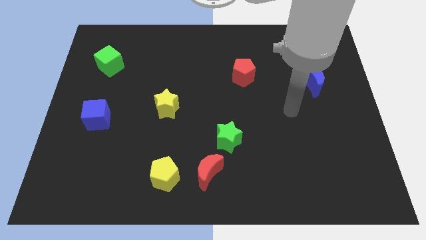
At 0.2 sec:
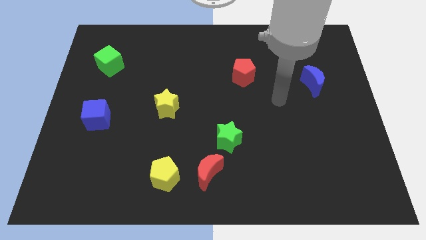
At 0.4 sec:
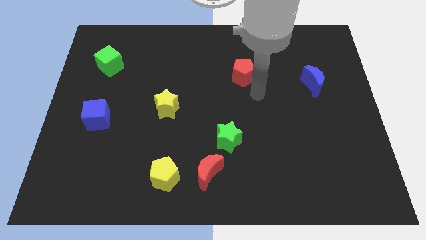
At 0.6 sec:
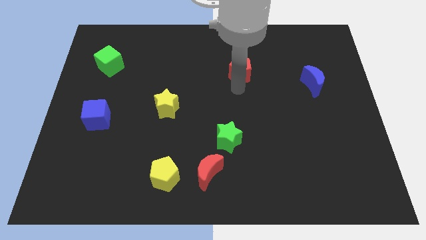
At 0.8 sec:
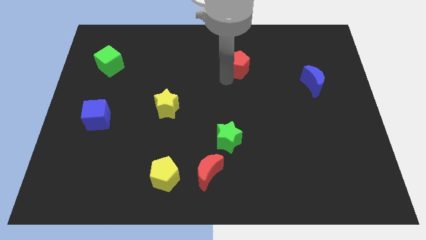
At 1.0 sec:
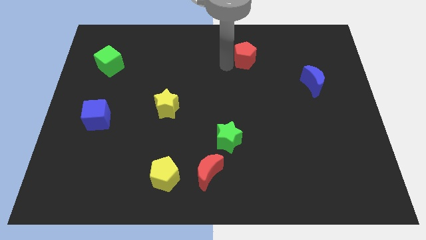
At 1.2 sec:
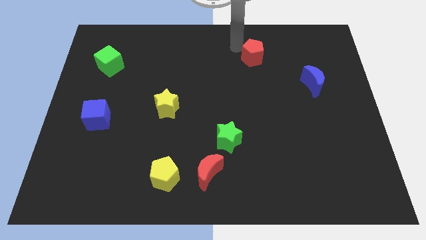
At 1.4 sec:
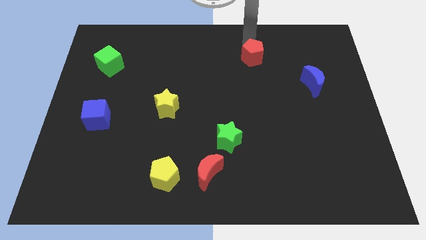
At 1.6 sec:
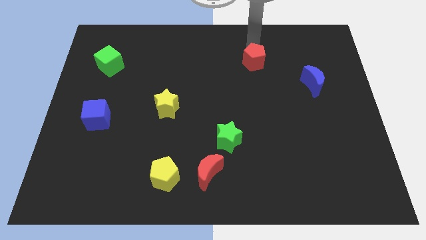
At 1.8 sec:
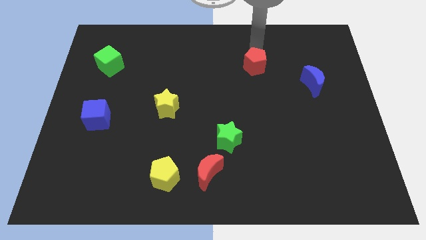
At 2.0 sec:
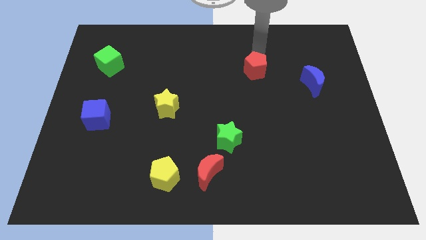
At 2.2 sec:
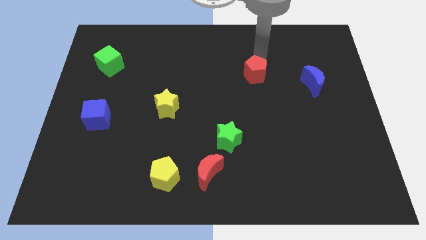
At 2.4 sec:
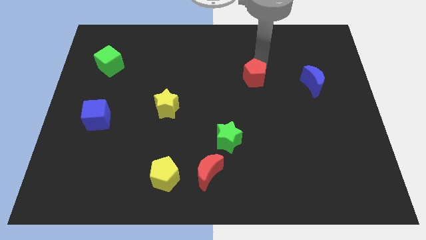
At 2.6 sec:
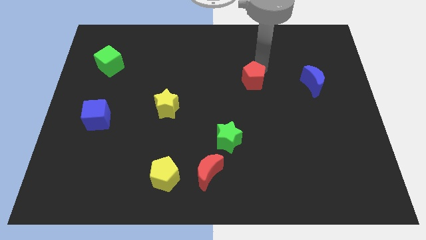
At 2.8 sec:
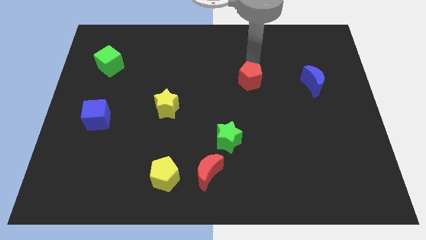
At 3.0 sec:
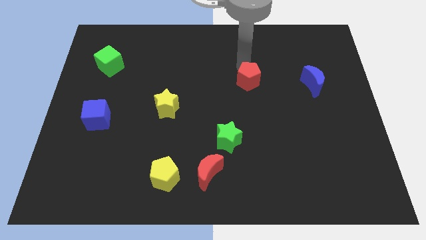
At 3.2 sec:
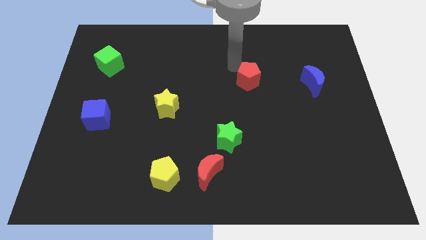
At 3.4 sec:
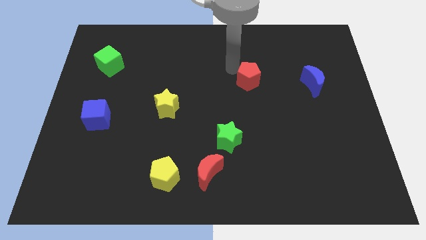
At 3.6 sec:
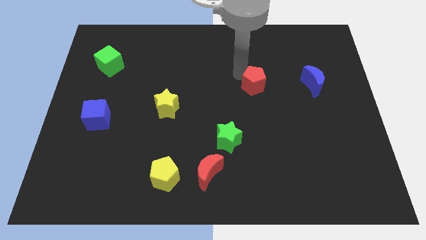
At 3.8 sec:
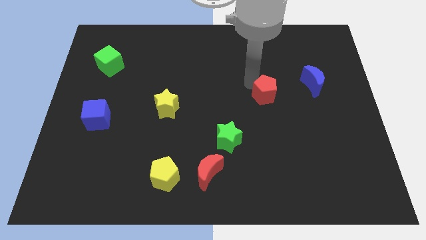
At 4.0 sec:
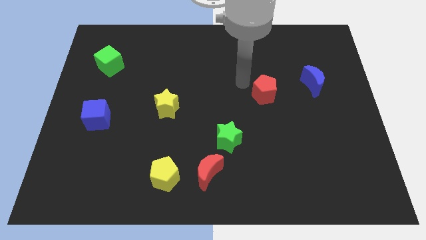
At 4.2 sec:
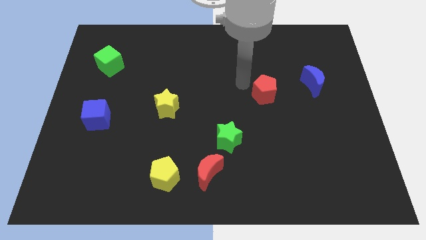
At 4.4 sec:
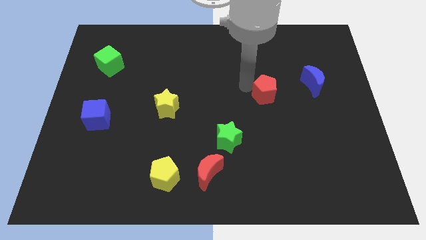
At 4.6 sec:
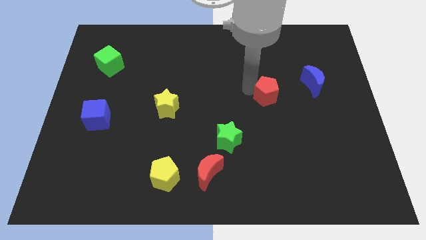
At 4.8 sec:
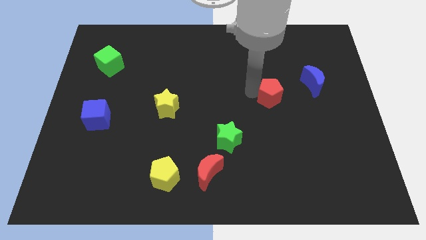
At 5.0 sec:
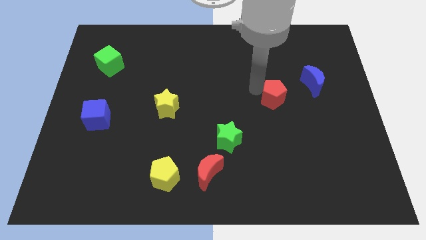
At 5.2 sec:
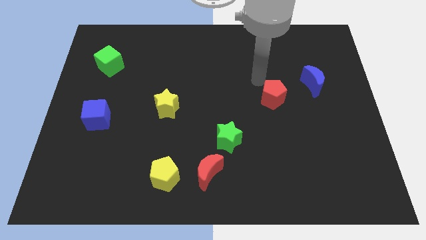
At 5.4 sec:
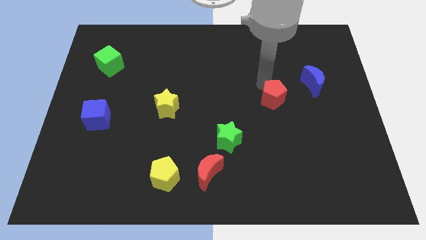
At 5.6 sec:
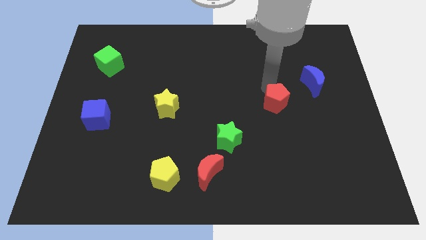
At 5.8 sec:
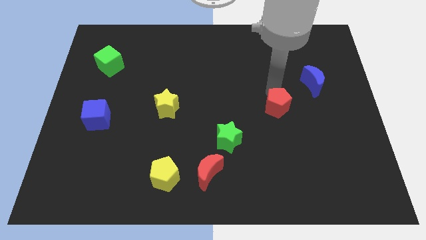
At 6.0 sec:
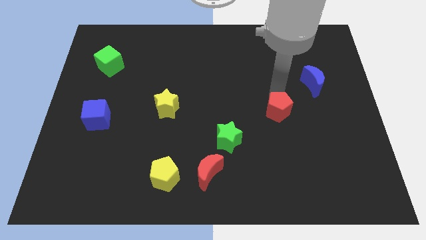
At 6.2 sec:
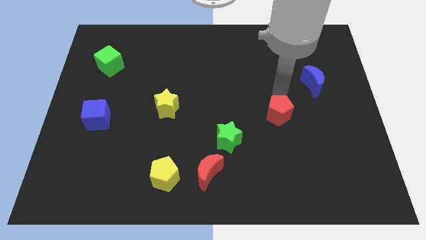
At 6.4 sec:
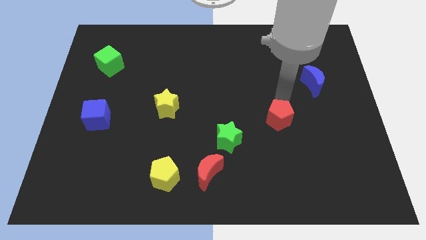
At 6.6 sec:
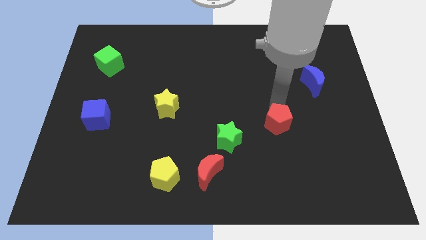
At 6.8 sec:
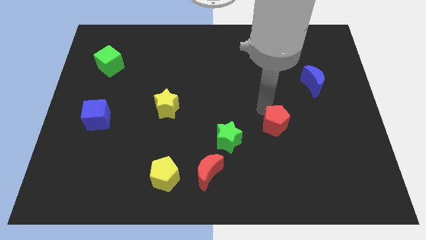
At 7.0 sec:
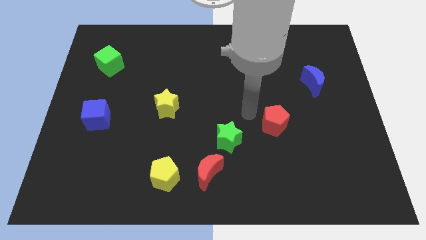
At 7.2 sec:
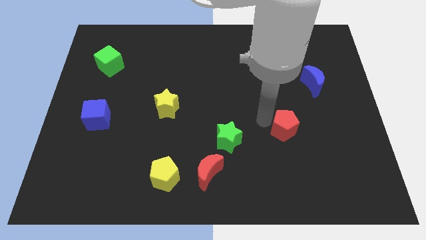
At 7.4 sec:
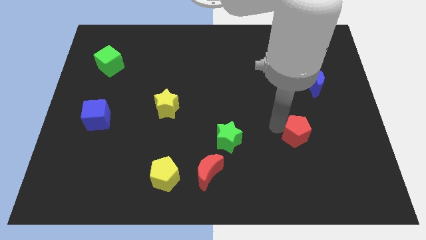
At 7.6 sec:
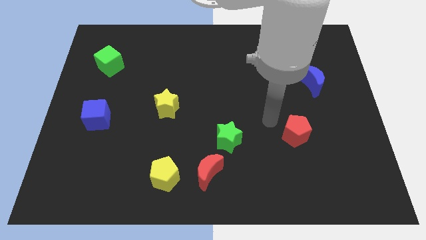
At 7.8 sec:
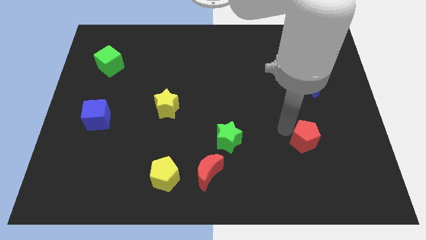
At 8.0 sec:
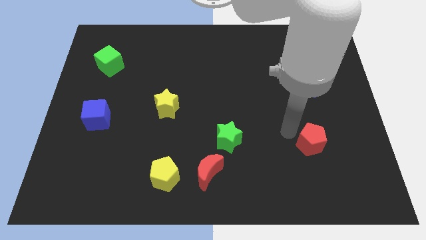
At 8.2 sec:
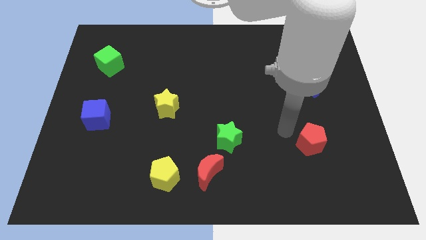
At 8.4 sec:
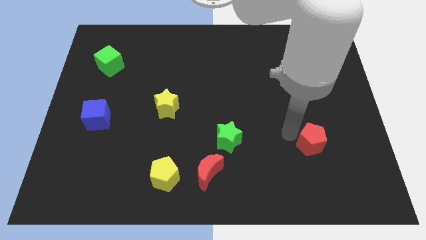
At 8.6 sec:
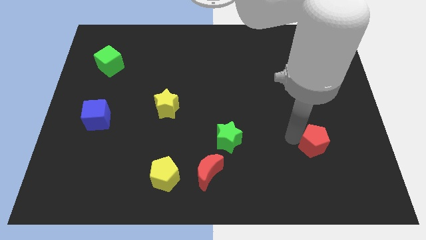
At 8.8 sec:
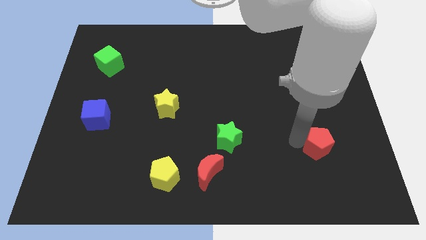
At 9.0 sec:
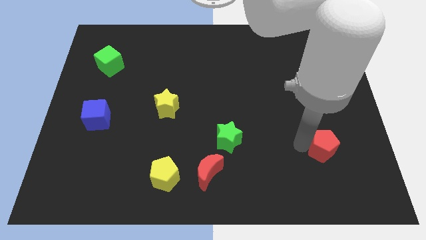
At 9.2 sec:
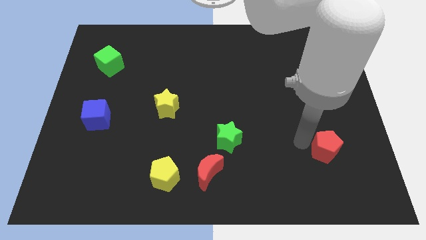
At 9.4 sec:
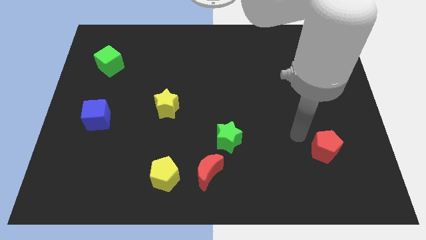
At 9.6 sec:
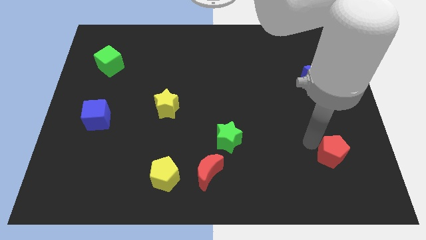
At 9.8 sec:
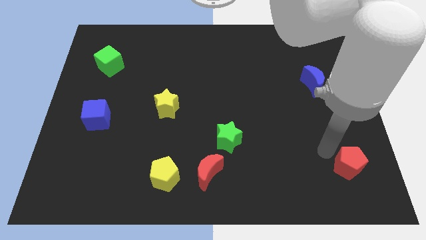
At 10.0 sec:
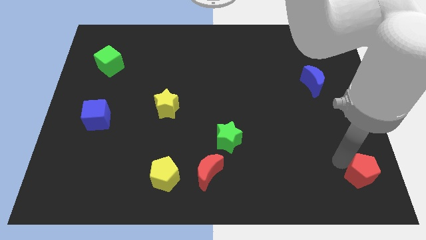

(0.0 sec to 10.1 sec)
put the red pentagon to the lower right corner

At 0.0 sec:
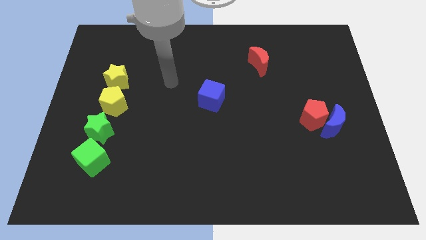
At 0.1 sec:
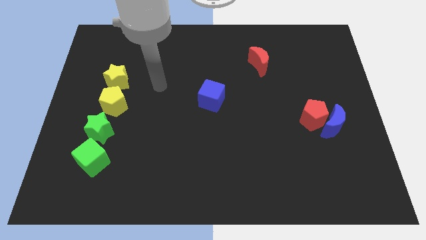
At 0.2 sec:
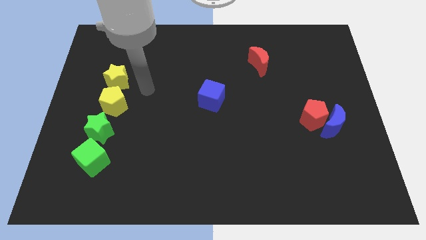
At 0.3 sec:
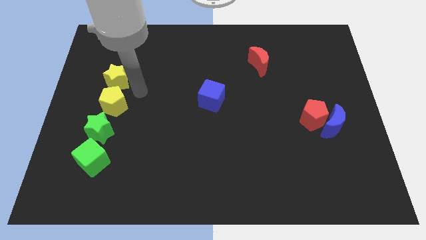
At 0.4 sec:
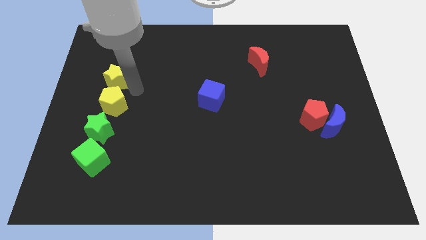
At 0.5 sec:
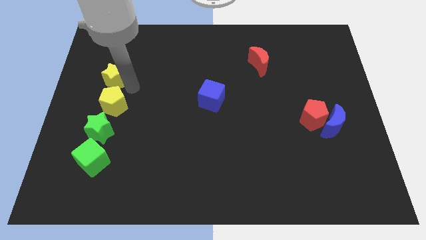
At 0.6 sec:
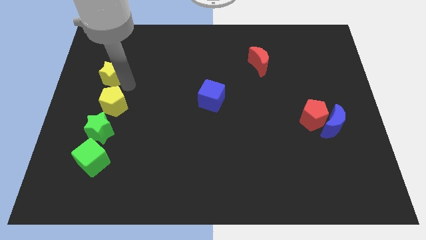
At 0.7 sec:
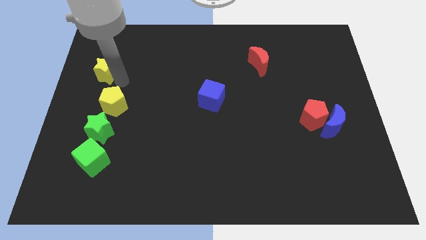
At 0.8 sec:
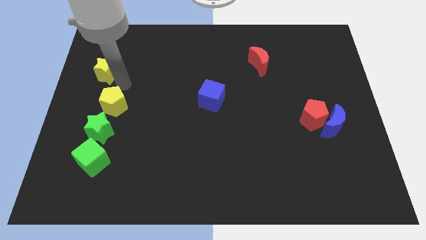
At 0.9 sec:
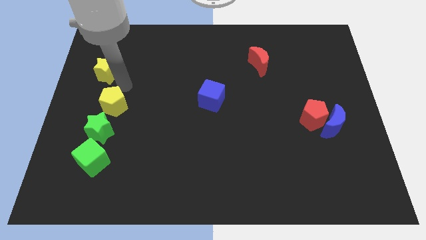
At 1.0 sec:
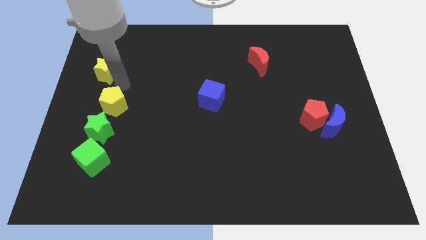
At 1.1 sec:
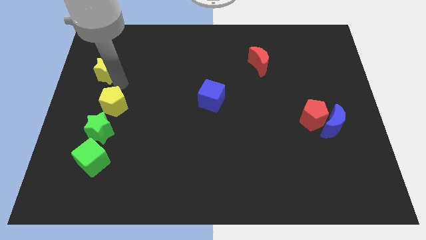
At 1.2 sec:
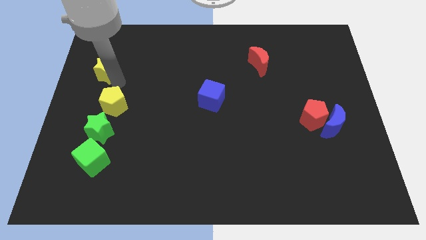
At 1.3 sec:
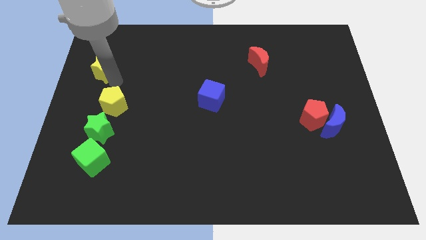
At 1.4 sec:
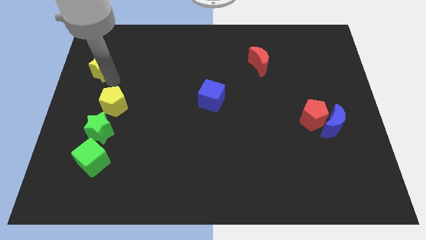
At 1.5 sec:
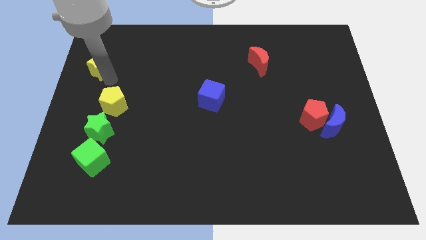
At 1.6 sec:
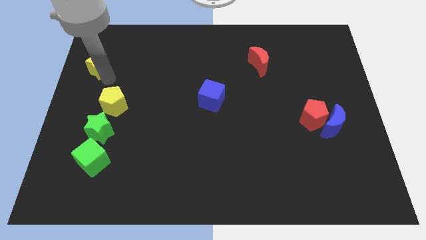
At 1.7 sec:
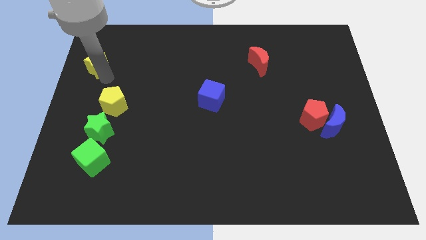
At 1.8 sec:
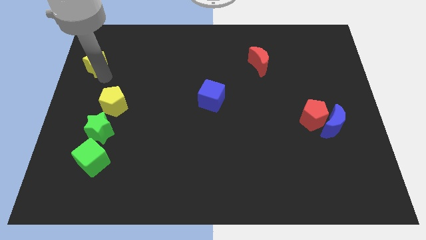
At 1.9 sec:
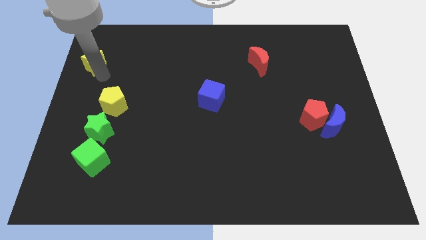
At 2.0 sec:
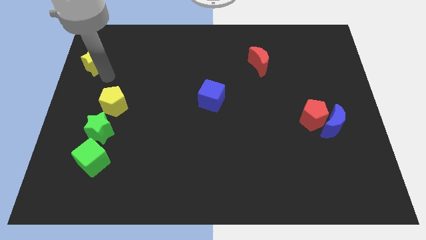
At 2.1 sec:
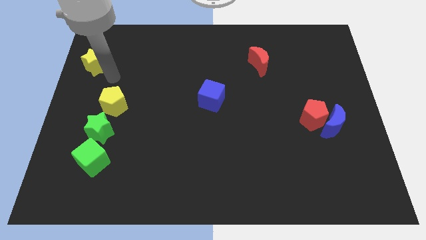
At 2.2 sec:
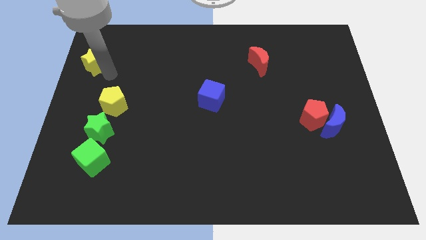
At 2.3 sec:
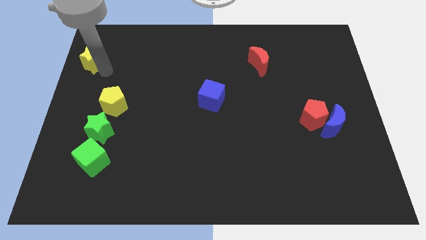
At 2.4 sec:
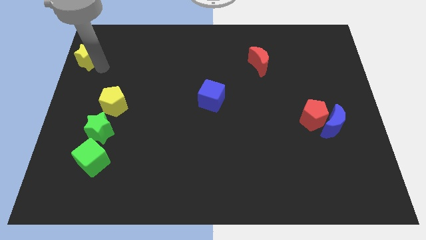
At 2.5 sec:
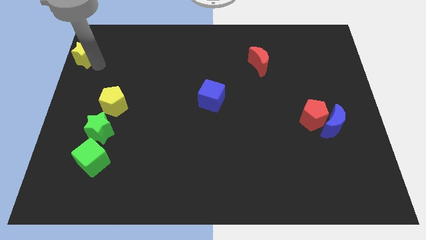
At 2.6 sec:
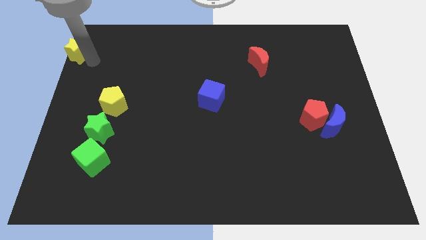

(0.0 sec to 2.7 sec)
put the yellow star to the upper left corner
